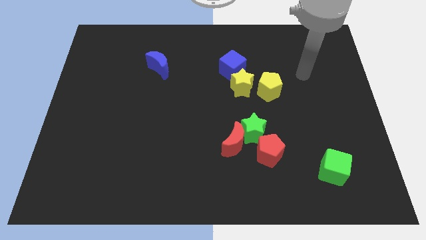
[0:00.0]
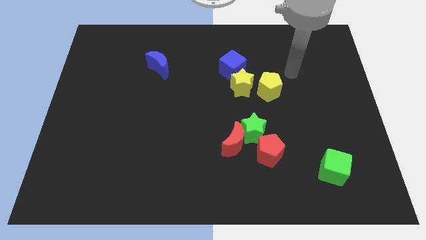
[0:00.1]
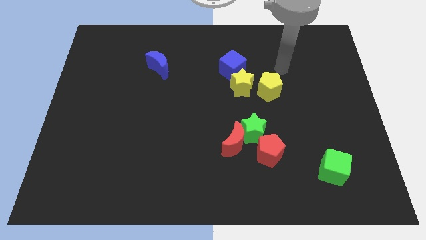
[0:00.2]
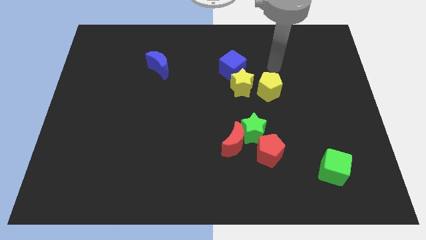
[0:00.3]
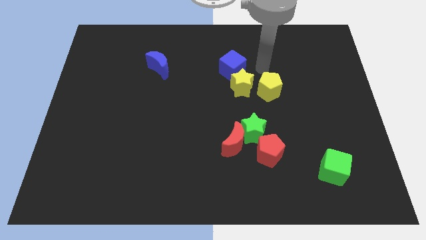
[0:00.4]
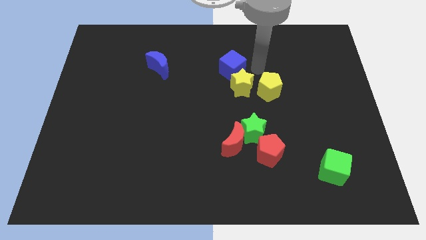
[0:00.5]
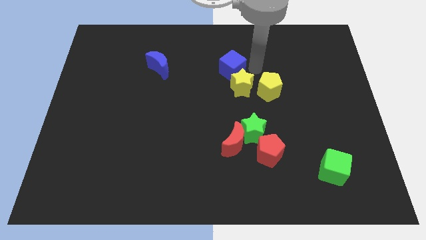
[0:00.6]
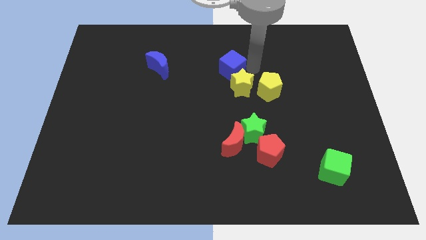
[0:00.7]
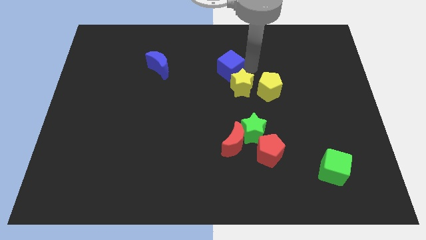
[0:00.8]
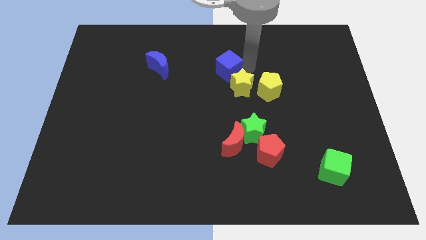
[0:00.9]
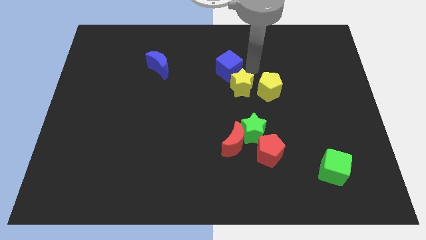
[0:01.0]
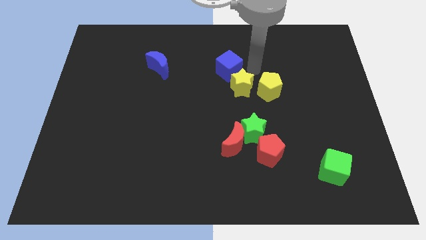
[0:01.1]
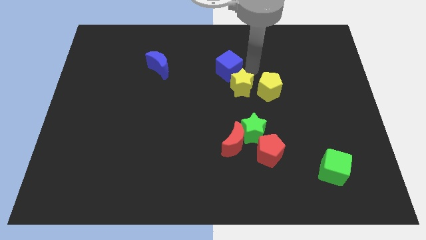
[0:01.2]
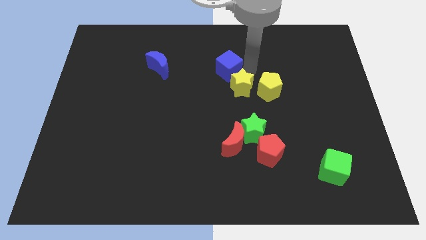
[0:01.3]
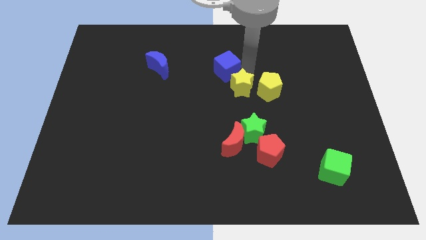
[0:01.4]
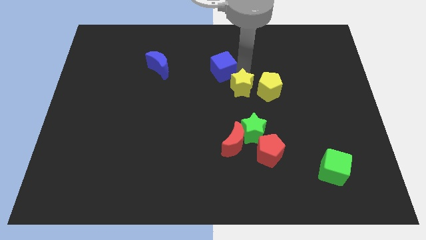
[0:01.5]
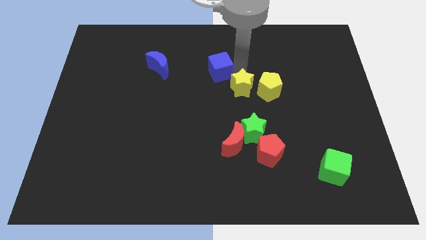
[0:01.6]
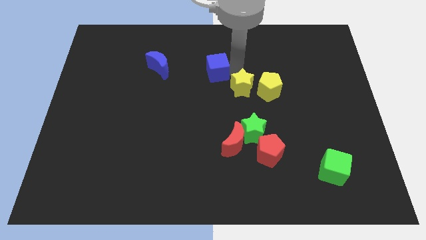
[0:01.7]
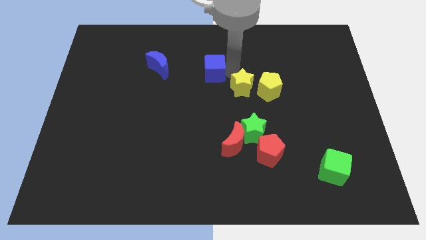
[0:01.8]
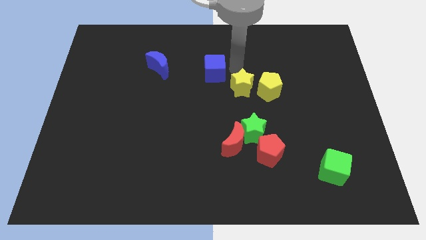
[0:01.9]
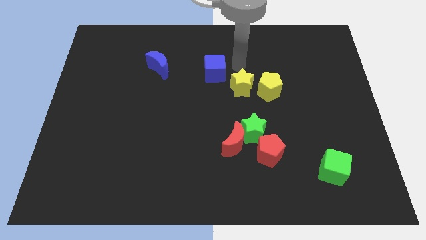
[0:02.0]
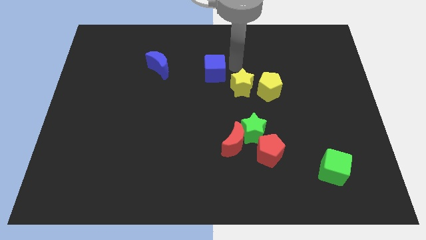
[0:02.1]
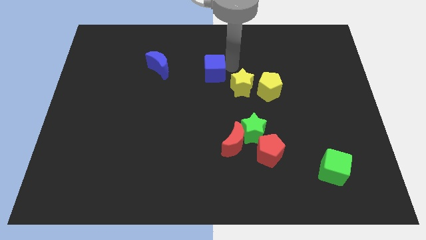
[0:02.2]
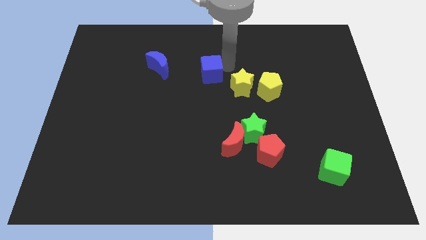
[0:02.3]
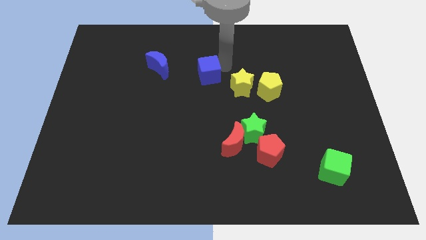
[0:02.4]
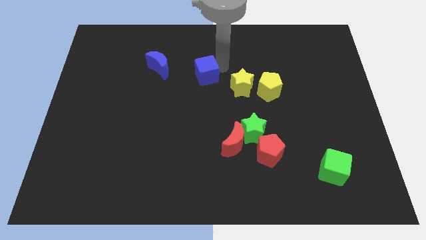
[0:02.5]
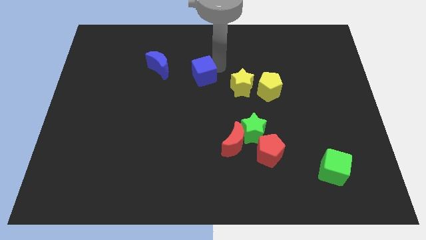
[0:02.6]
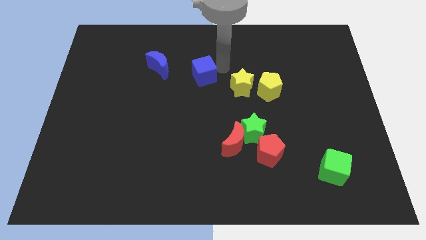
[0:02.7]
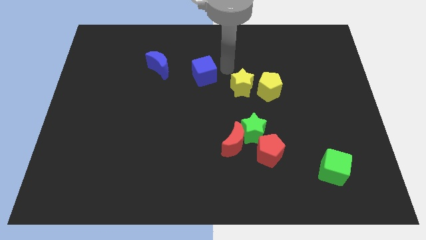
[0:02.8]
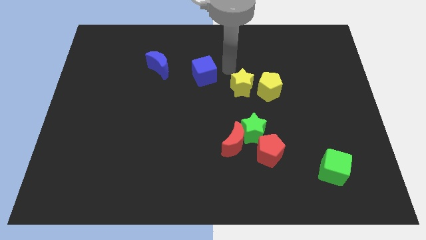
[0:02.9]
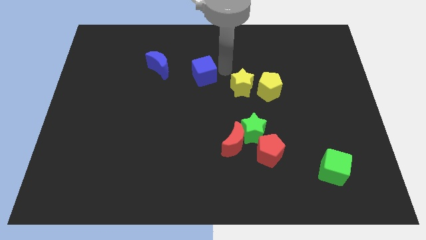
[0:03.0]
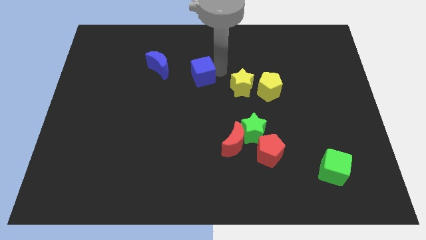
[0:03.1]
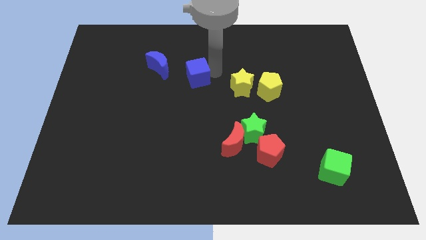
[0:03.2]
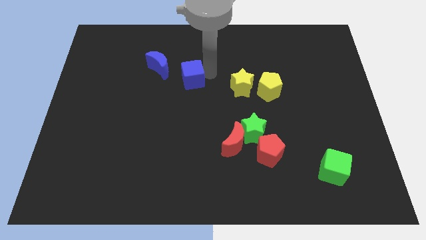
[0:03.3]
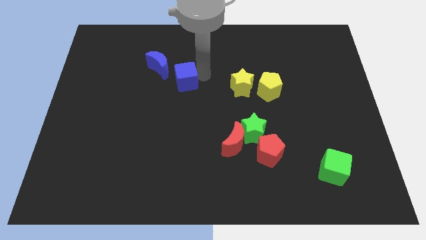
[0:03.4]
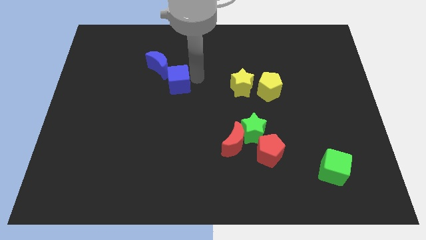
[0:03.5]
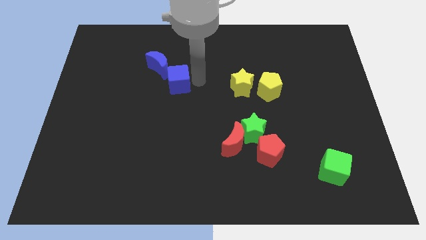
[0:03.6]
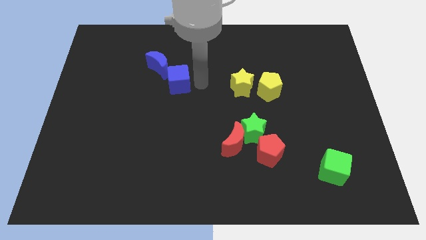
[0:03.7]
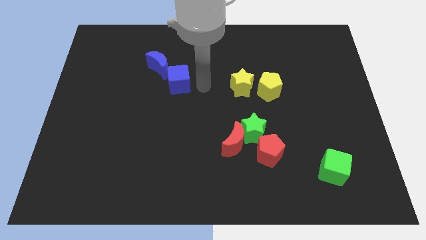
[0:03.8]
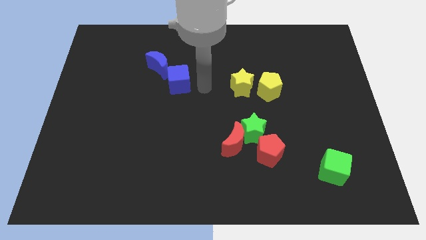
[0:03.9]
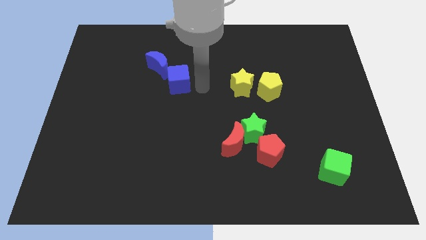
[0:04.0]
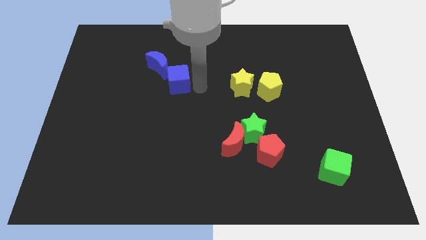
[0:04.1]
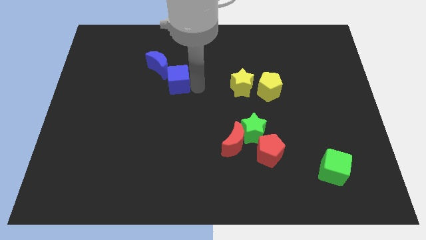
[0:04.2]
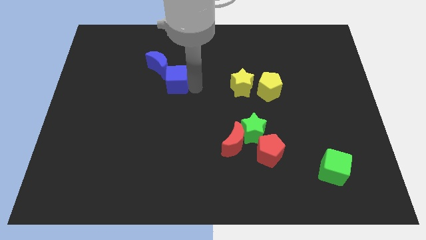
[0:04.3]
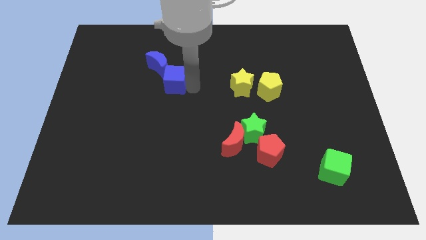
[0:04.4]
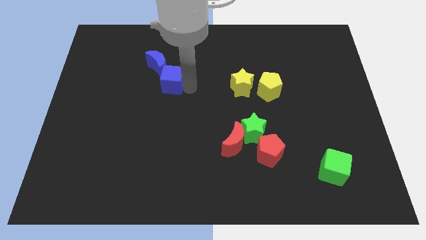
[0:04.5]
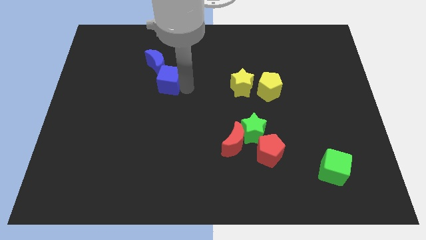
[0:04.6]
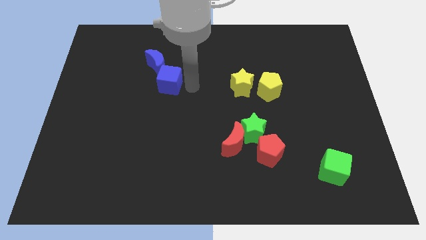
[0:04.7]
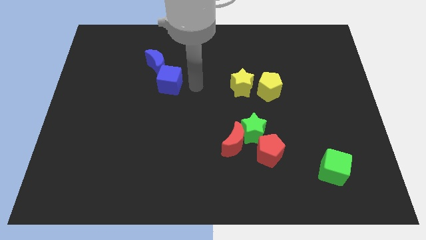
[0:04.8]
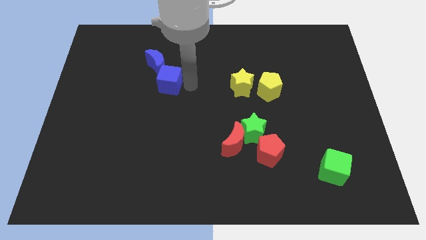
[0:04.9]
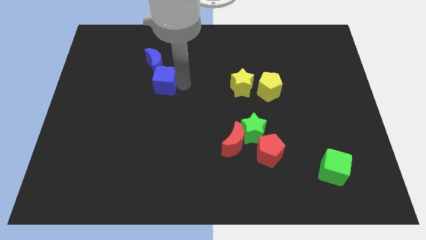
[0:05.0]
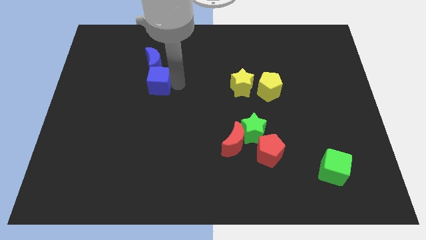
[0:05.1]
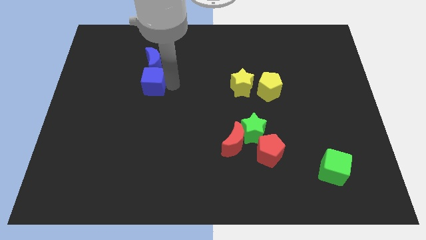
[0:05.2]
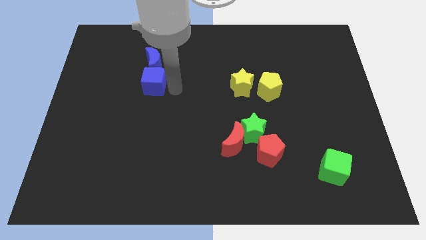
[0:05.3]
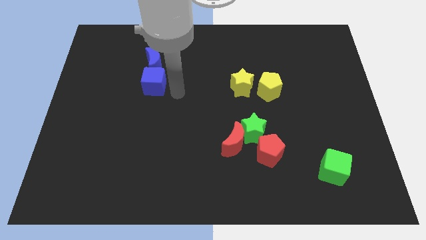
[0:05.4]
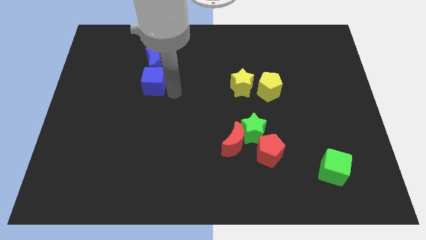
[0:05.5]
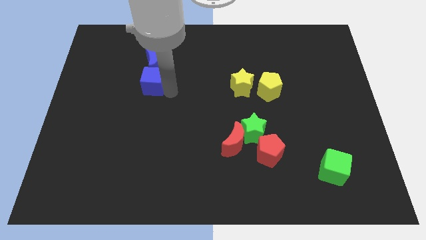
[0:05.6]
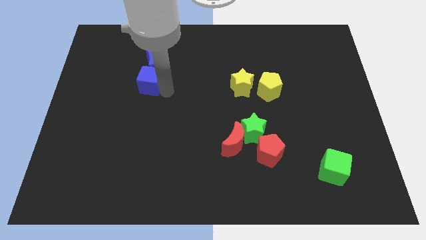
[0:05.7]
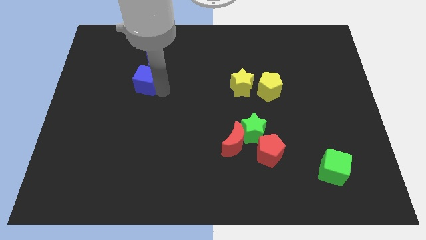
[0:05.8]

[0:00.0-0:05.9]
slide the blue cube left

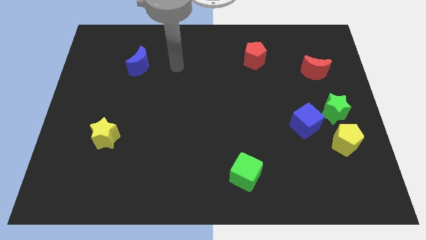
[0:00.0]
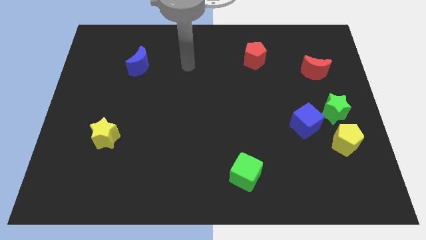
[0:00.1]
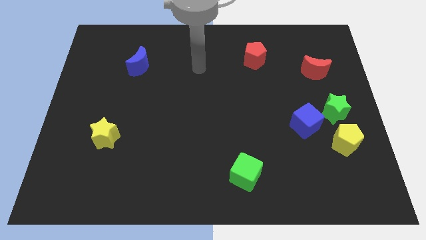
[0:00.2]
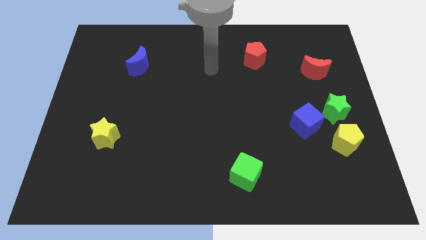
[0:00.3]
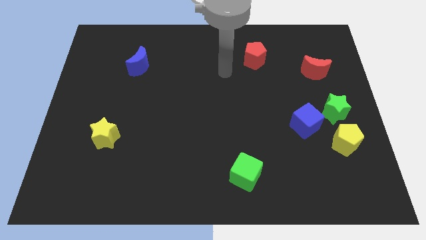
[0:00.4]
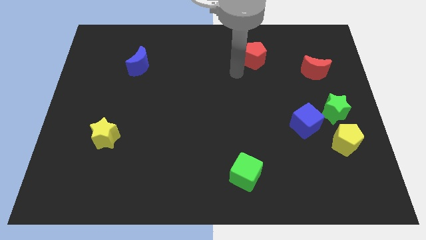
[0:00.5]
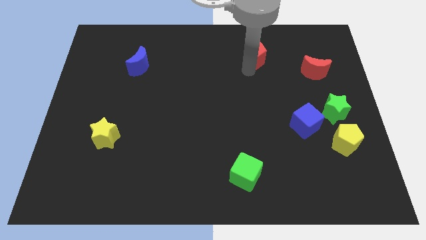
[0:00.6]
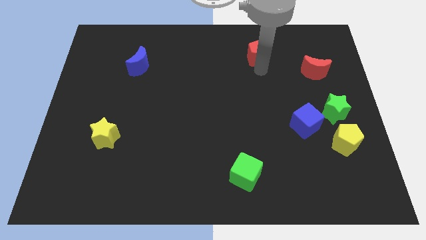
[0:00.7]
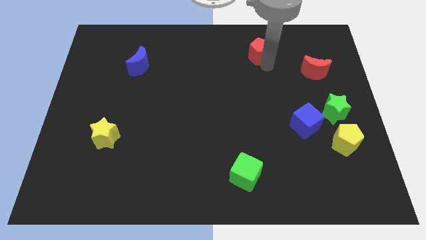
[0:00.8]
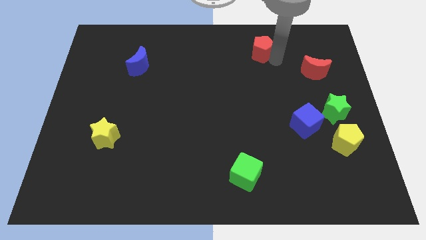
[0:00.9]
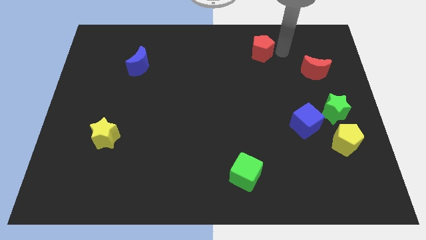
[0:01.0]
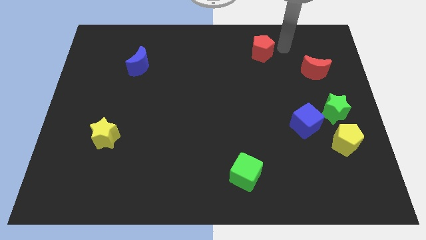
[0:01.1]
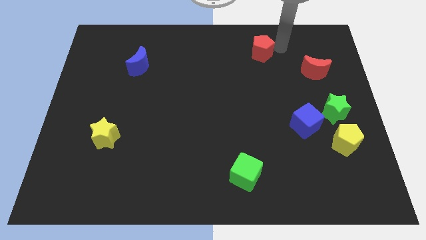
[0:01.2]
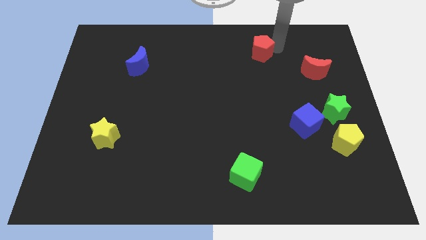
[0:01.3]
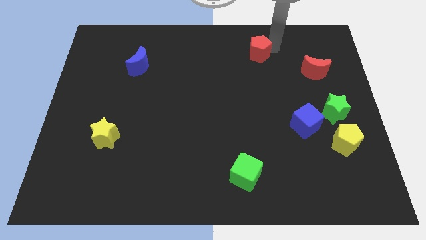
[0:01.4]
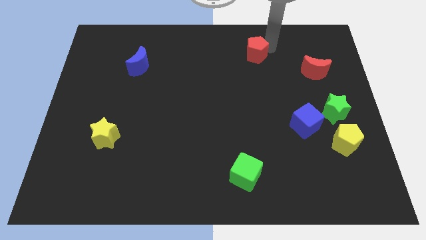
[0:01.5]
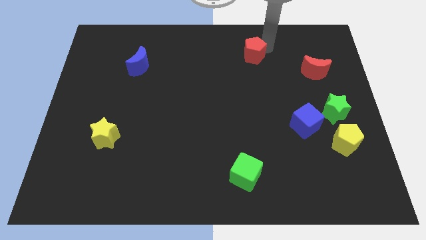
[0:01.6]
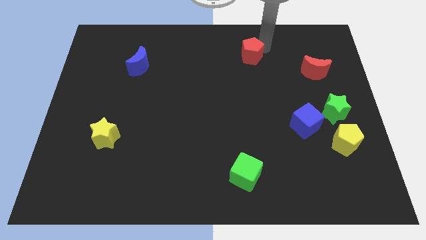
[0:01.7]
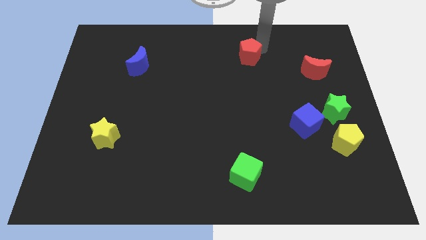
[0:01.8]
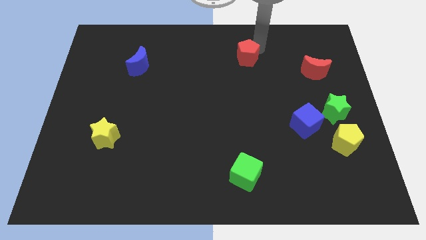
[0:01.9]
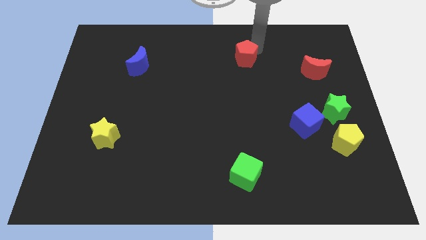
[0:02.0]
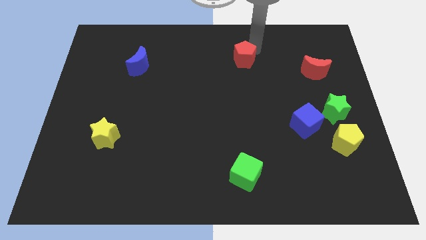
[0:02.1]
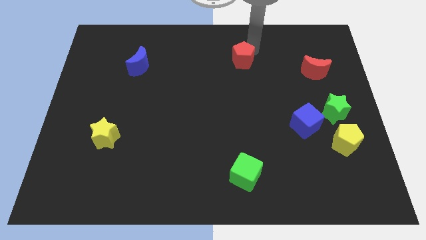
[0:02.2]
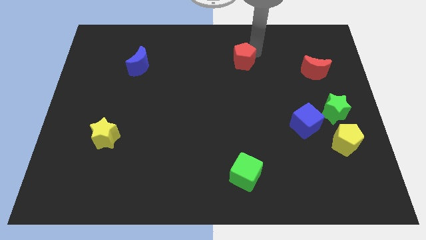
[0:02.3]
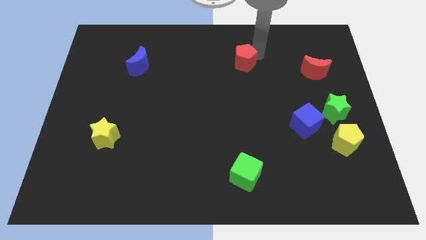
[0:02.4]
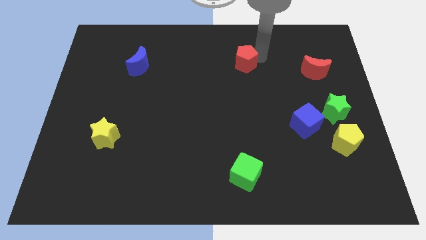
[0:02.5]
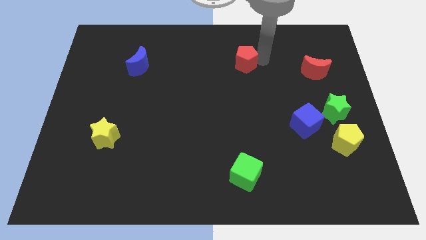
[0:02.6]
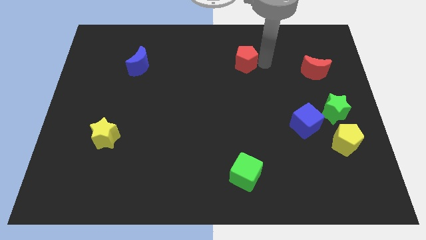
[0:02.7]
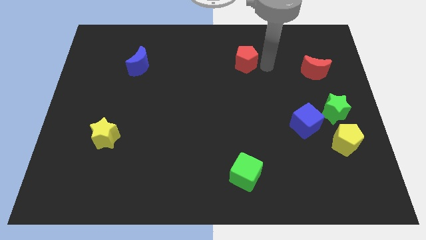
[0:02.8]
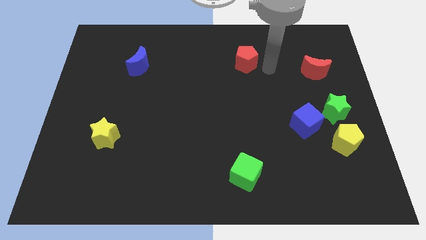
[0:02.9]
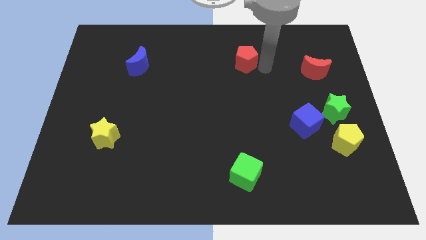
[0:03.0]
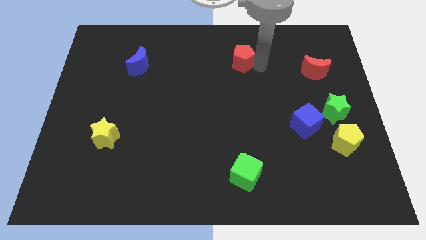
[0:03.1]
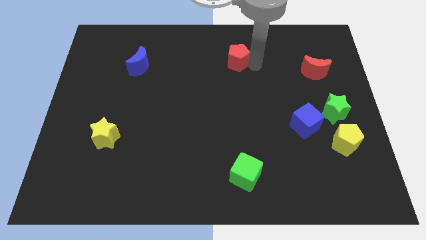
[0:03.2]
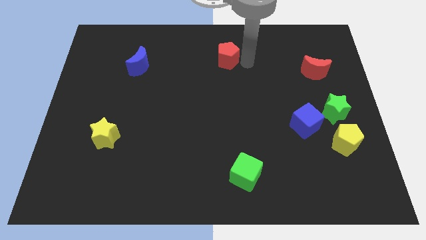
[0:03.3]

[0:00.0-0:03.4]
push the red pentagon to the left a little
